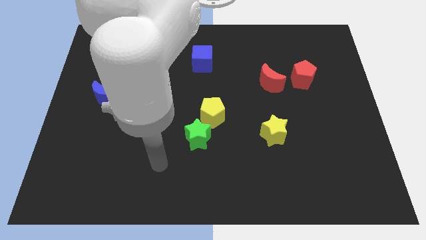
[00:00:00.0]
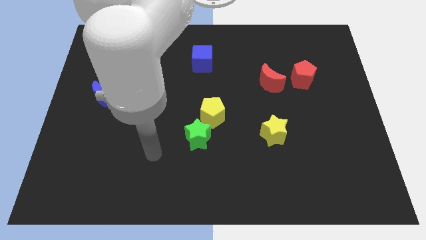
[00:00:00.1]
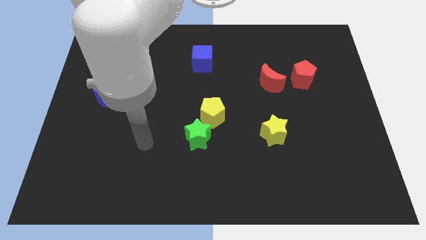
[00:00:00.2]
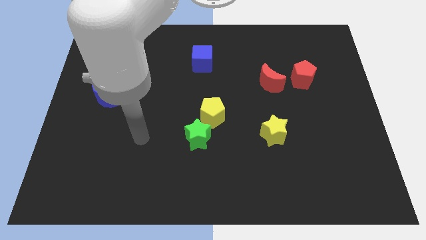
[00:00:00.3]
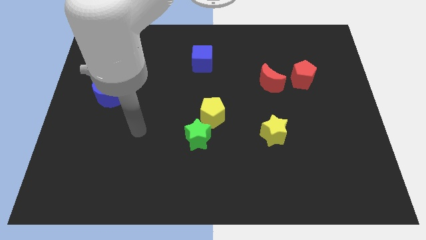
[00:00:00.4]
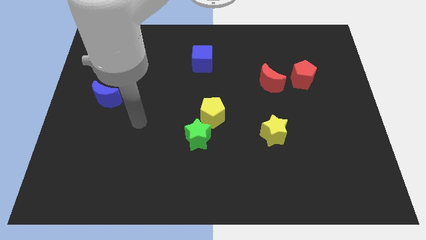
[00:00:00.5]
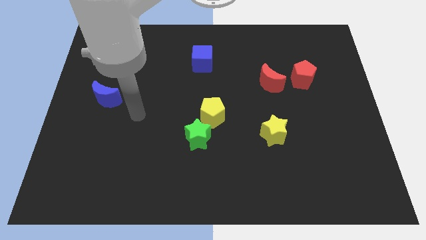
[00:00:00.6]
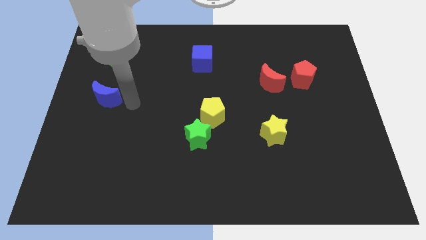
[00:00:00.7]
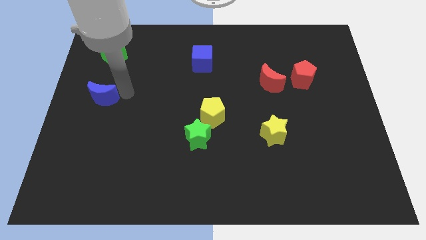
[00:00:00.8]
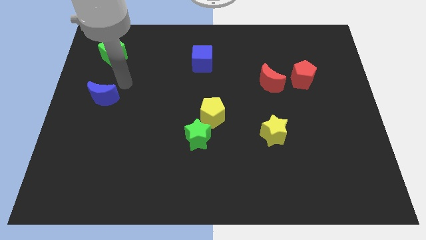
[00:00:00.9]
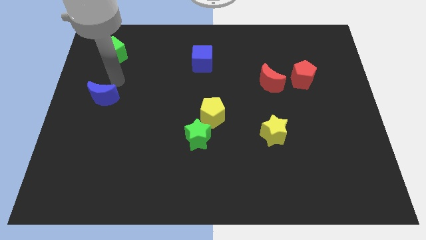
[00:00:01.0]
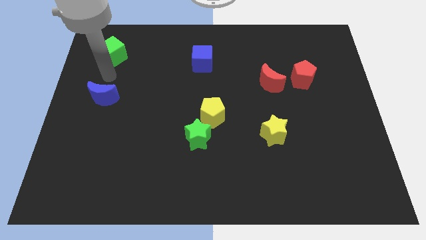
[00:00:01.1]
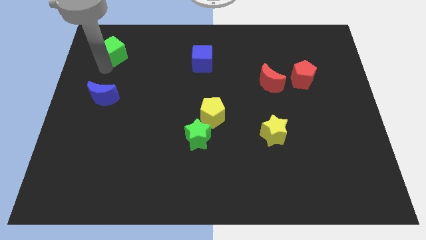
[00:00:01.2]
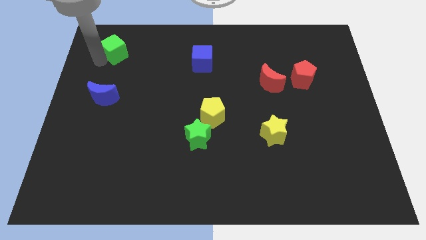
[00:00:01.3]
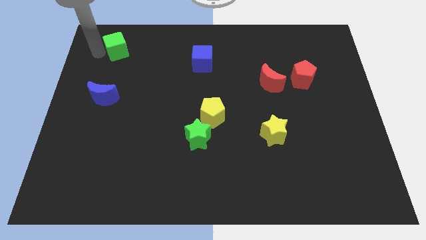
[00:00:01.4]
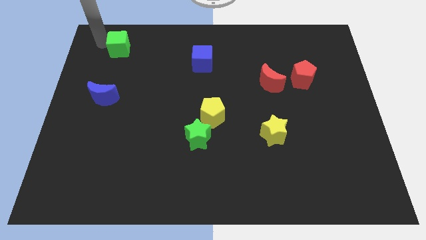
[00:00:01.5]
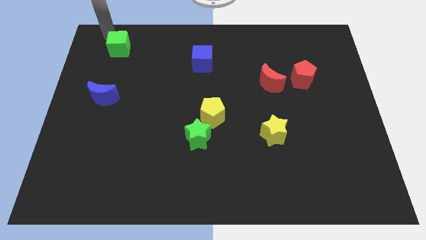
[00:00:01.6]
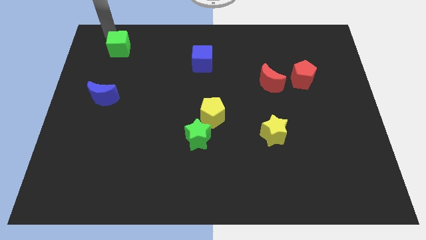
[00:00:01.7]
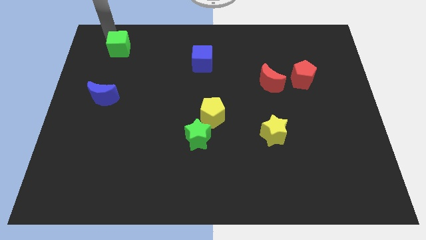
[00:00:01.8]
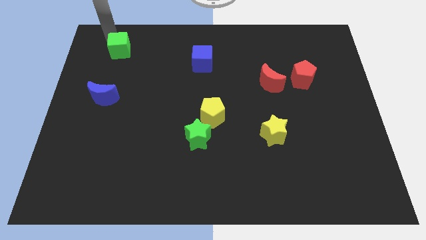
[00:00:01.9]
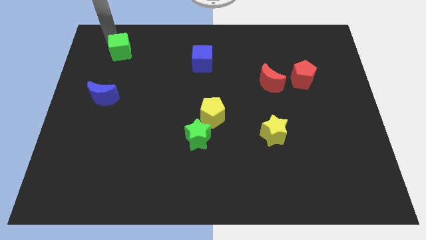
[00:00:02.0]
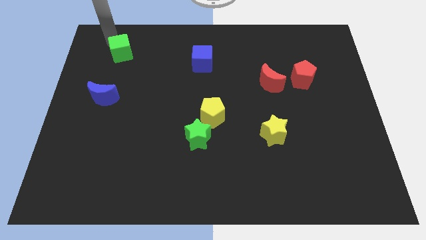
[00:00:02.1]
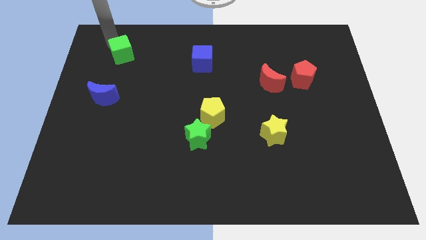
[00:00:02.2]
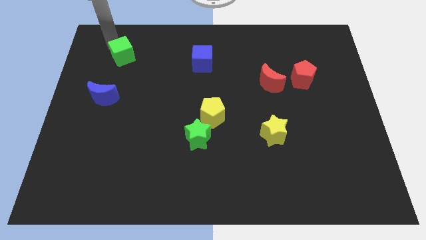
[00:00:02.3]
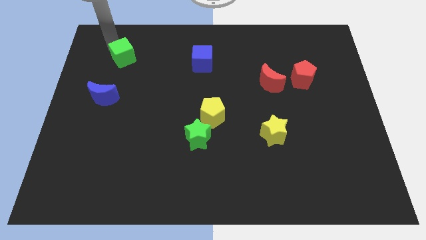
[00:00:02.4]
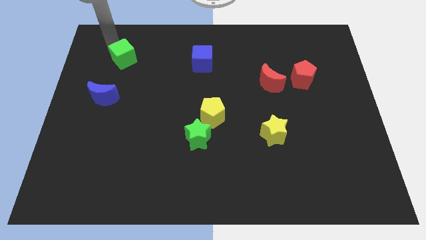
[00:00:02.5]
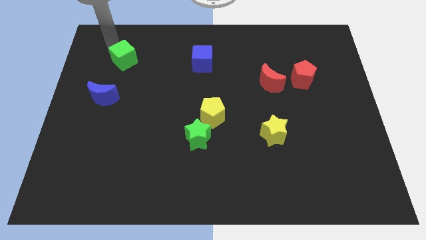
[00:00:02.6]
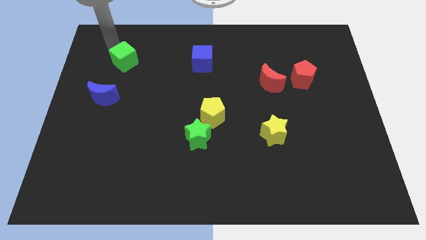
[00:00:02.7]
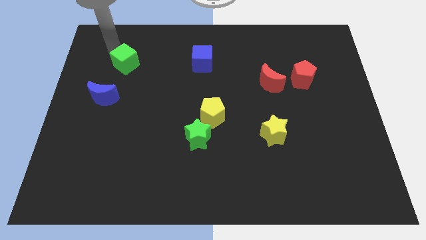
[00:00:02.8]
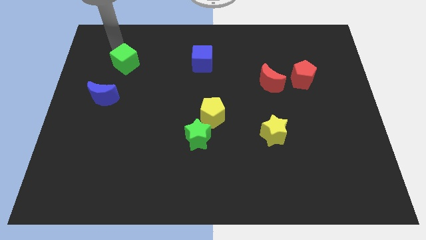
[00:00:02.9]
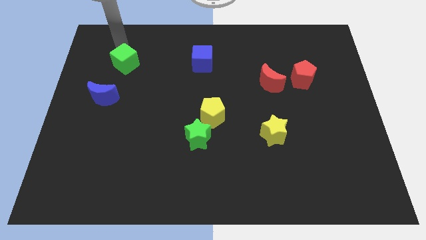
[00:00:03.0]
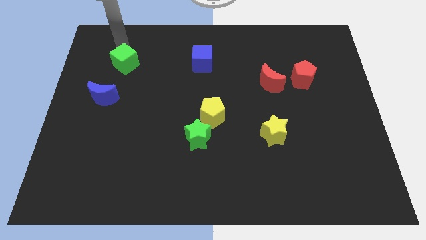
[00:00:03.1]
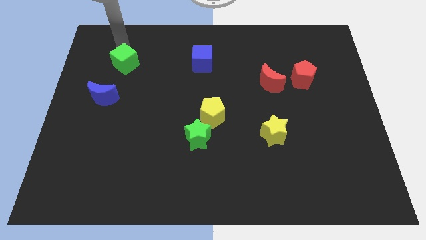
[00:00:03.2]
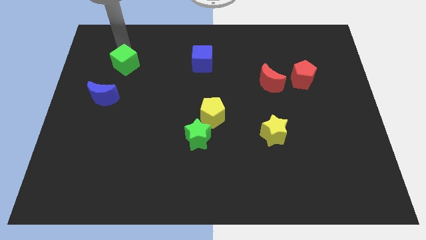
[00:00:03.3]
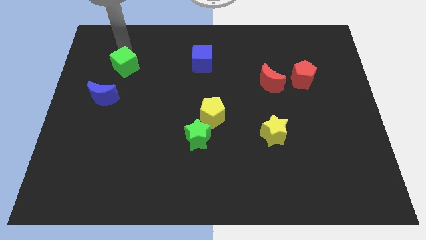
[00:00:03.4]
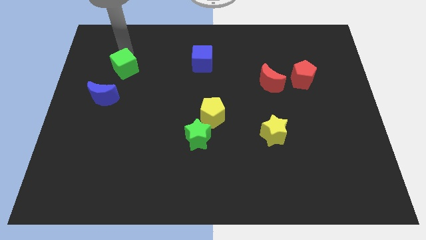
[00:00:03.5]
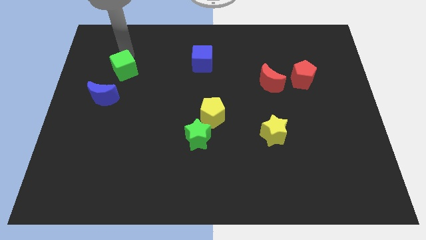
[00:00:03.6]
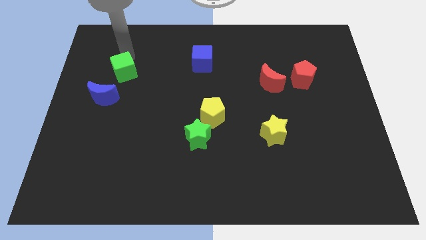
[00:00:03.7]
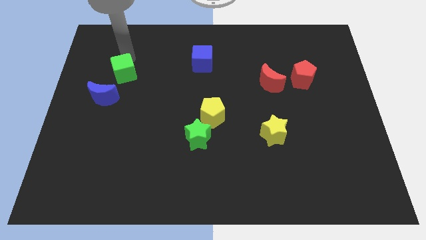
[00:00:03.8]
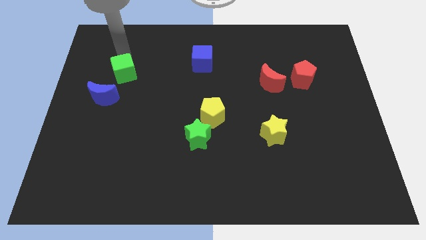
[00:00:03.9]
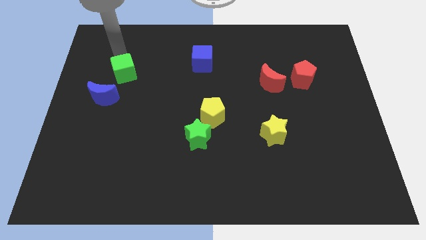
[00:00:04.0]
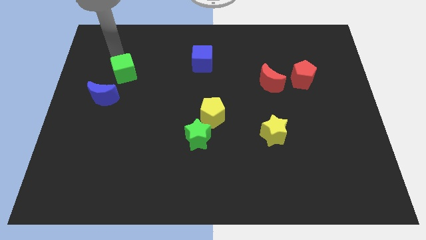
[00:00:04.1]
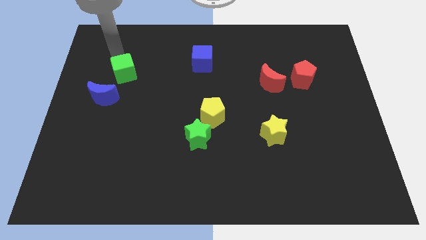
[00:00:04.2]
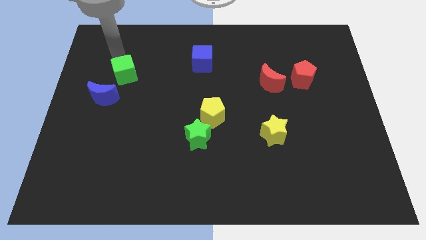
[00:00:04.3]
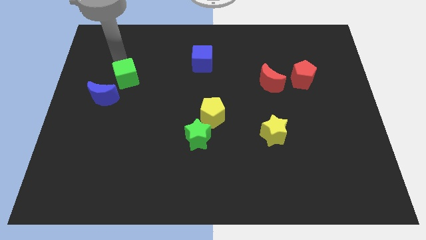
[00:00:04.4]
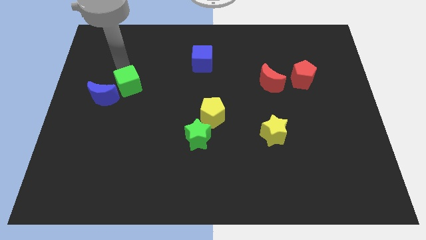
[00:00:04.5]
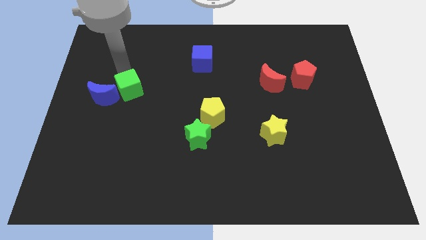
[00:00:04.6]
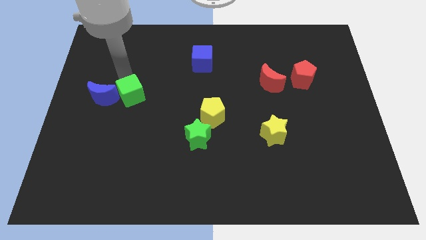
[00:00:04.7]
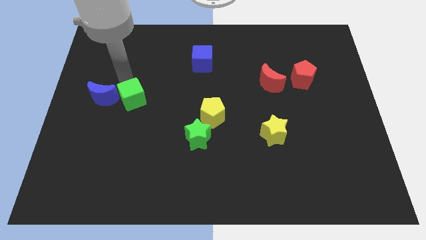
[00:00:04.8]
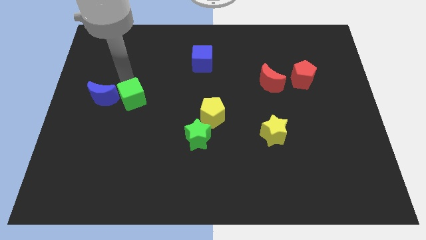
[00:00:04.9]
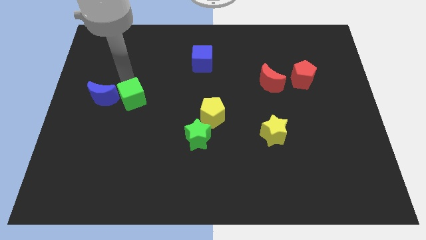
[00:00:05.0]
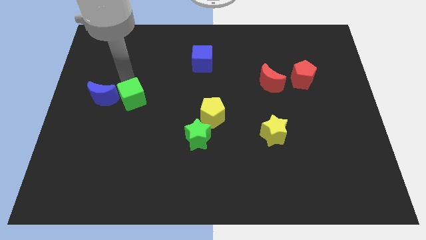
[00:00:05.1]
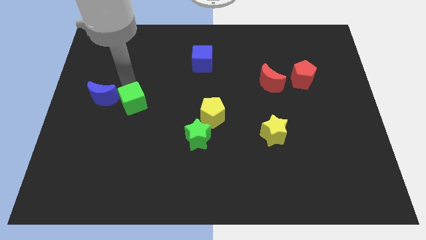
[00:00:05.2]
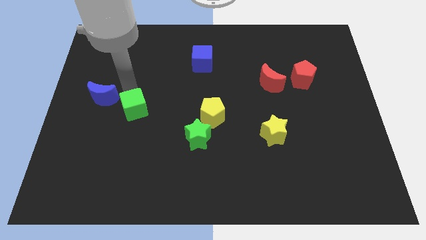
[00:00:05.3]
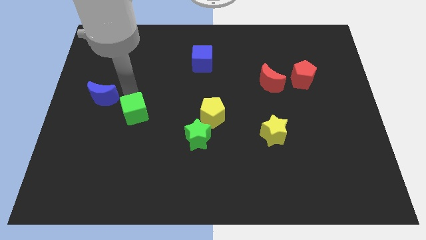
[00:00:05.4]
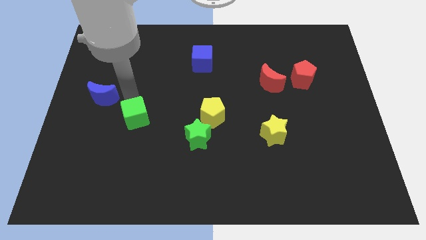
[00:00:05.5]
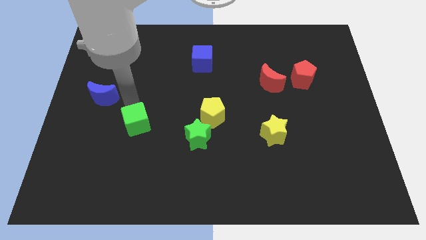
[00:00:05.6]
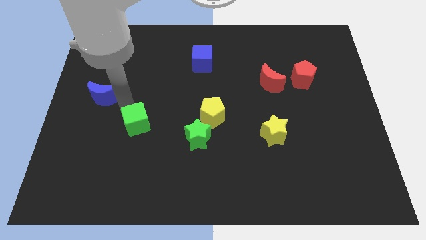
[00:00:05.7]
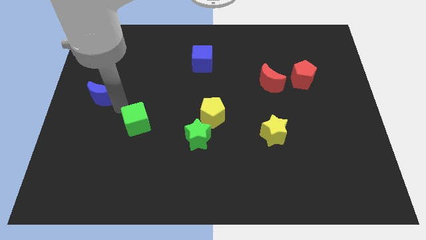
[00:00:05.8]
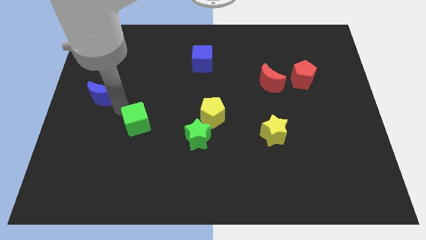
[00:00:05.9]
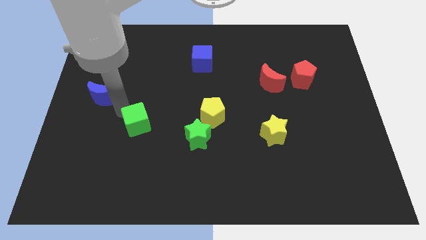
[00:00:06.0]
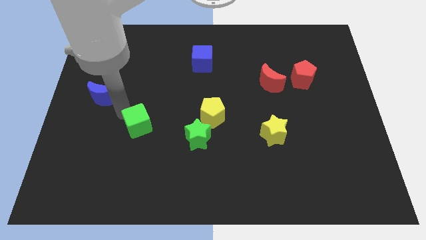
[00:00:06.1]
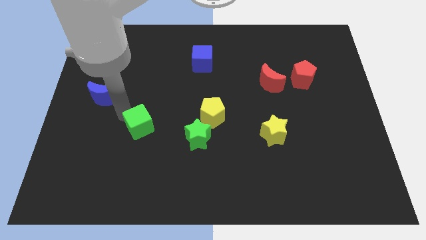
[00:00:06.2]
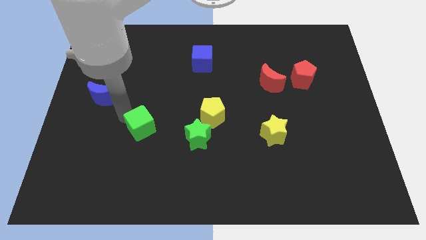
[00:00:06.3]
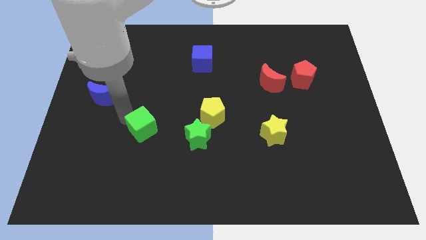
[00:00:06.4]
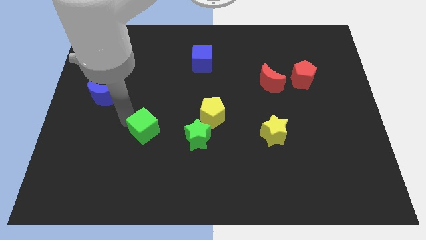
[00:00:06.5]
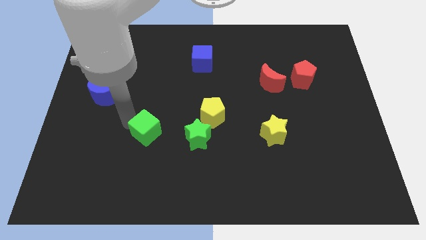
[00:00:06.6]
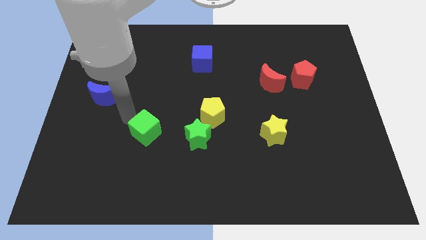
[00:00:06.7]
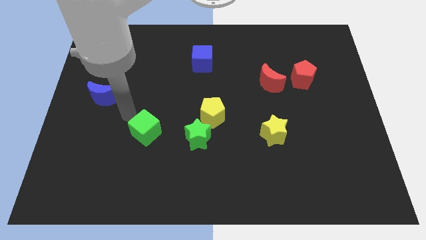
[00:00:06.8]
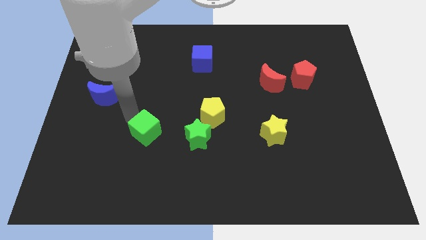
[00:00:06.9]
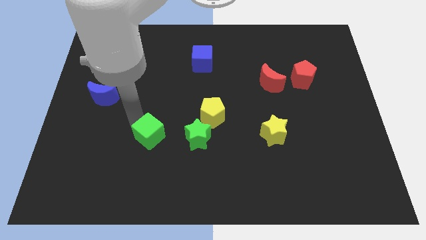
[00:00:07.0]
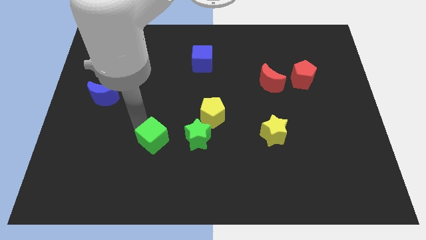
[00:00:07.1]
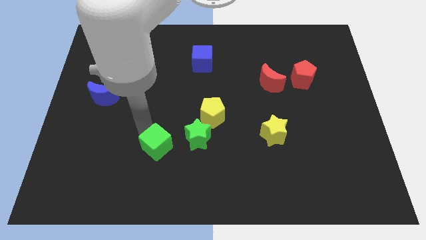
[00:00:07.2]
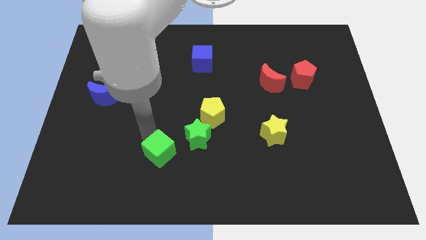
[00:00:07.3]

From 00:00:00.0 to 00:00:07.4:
push the green cube to the bottom left of the green star
